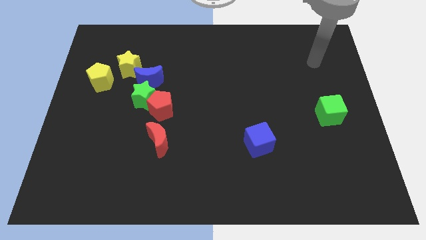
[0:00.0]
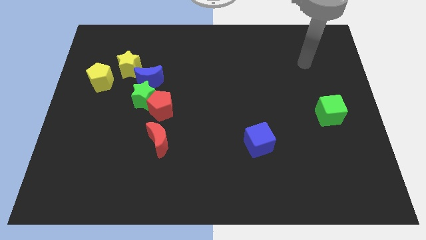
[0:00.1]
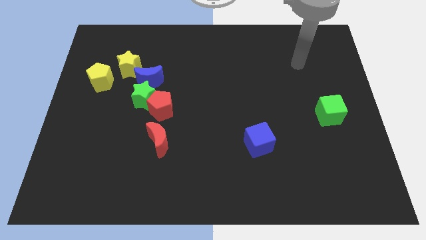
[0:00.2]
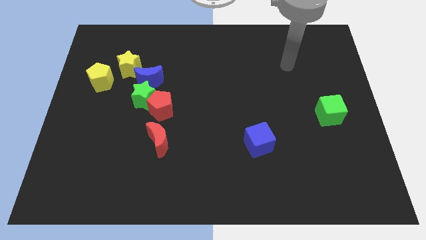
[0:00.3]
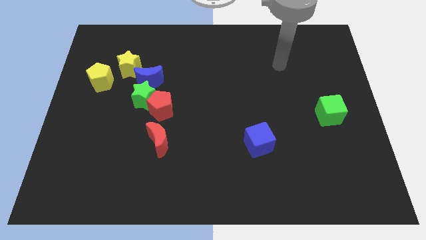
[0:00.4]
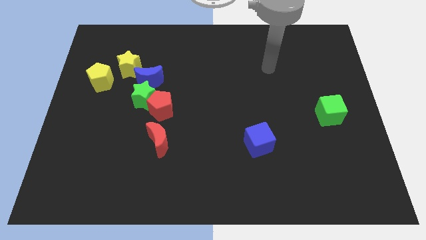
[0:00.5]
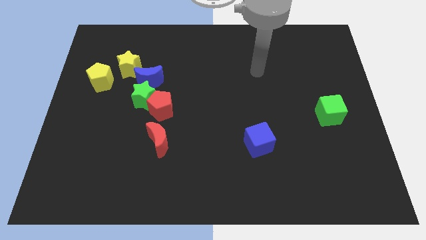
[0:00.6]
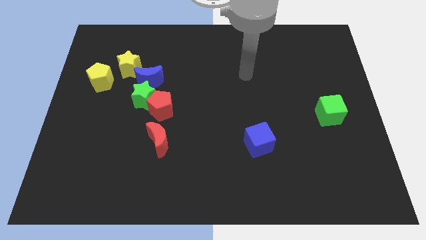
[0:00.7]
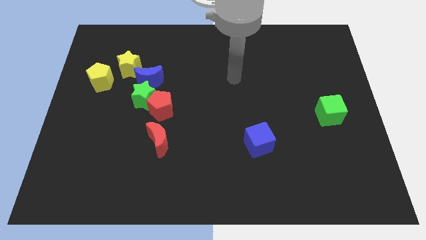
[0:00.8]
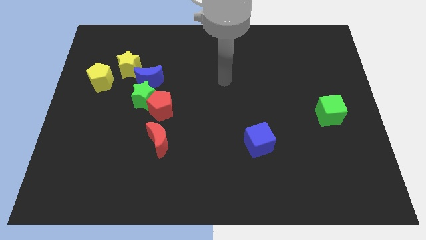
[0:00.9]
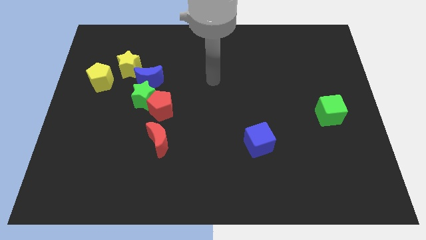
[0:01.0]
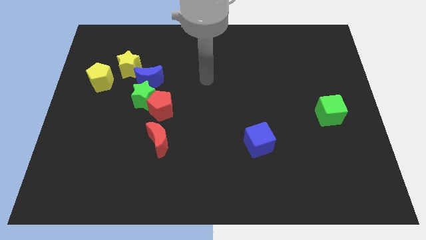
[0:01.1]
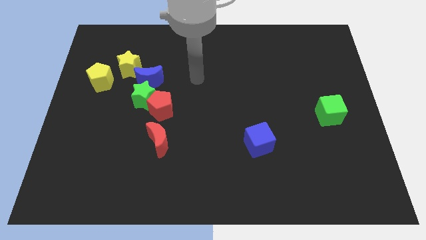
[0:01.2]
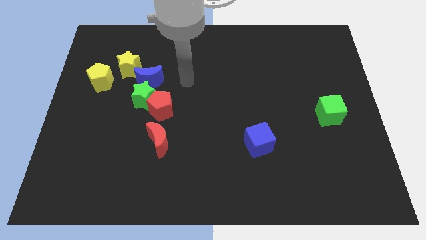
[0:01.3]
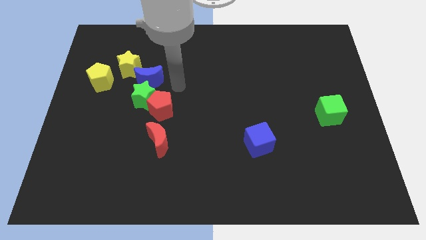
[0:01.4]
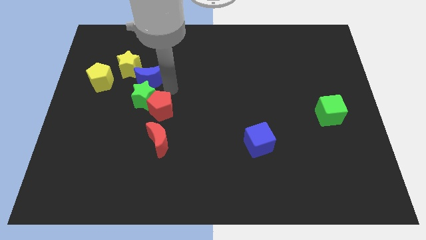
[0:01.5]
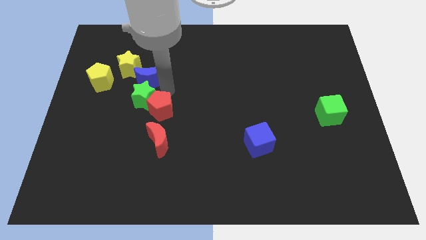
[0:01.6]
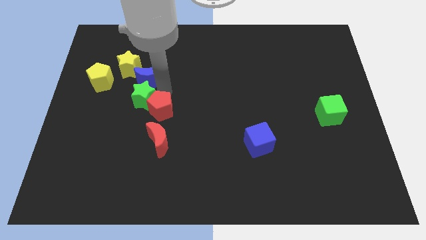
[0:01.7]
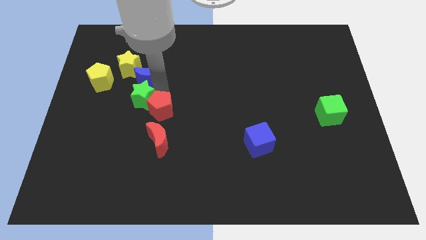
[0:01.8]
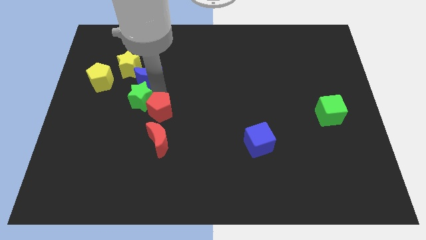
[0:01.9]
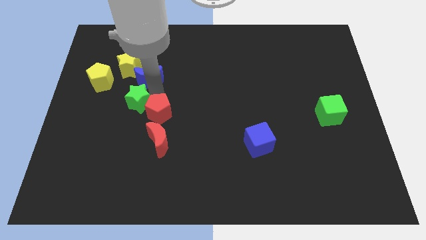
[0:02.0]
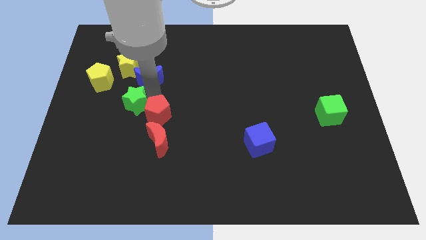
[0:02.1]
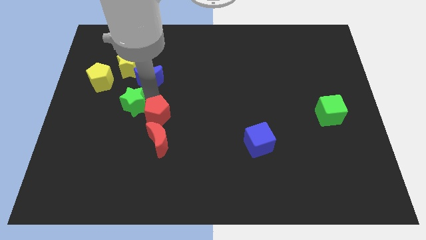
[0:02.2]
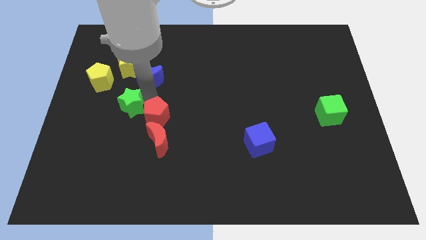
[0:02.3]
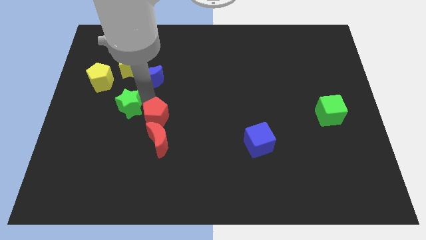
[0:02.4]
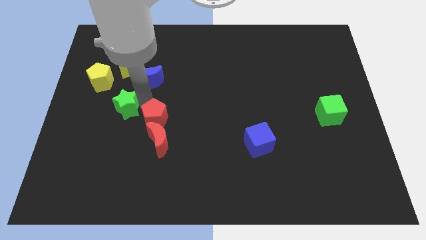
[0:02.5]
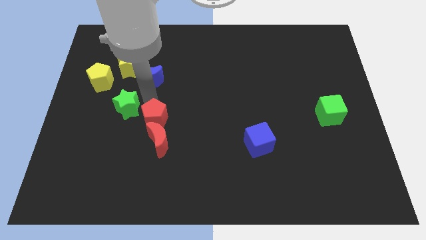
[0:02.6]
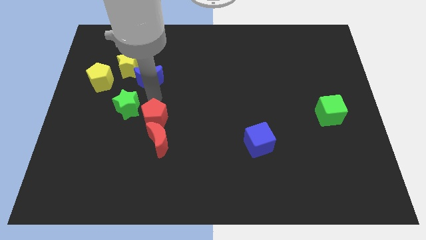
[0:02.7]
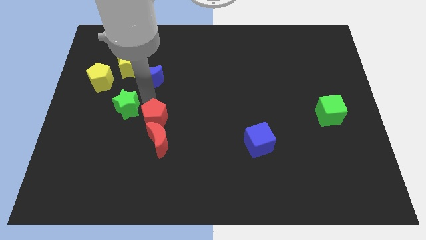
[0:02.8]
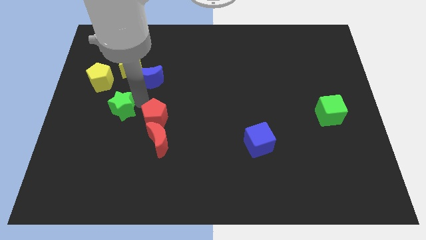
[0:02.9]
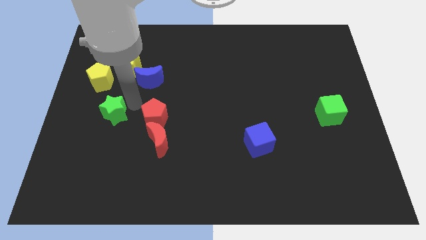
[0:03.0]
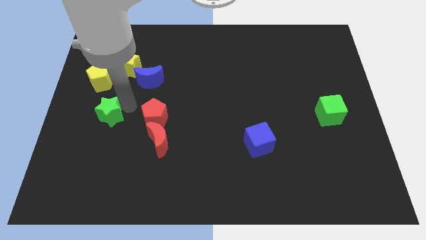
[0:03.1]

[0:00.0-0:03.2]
separate the green star from the red pentagon and blue moon

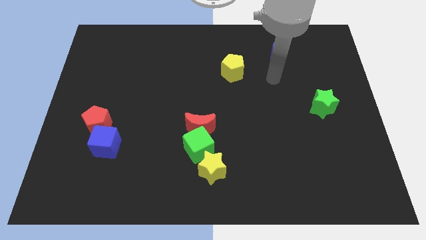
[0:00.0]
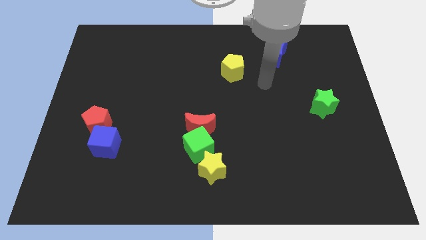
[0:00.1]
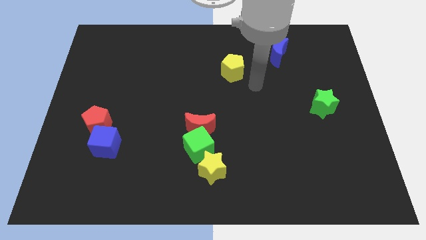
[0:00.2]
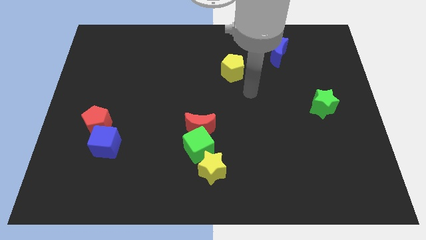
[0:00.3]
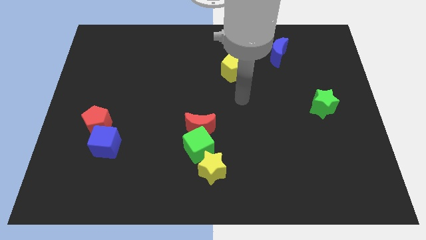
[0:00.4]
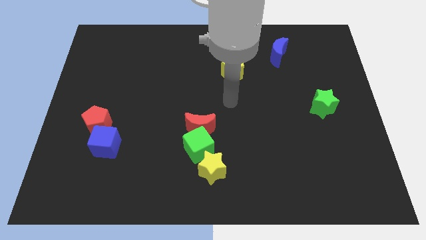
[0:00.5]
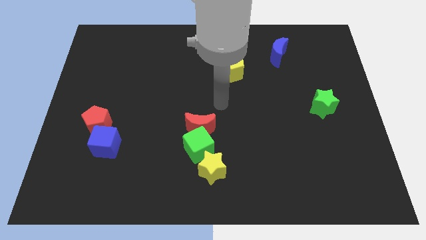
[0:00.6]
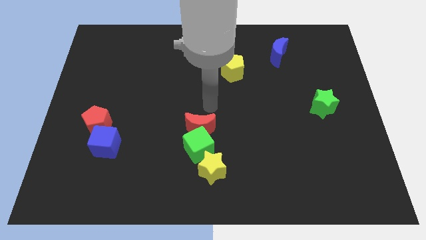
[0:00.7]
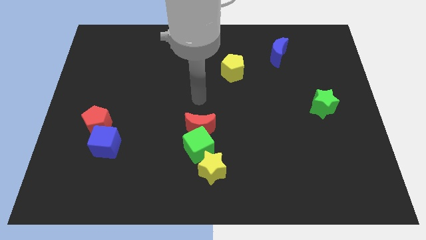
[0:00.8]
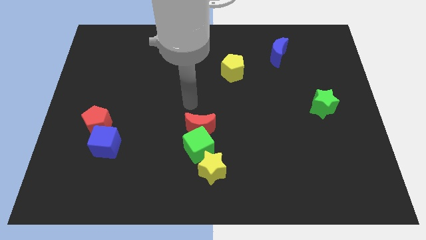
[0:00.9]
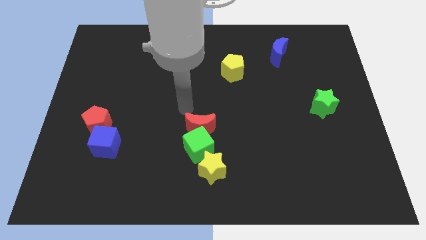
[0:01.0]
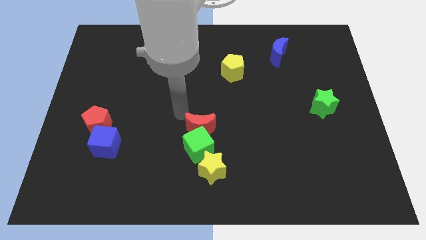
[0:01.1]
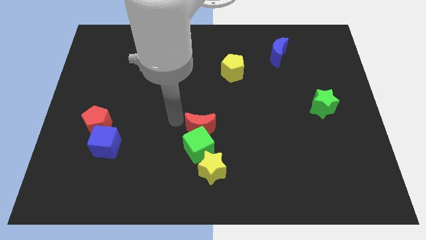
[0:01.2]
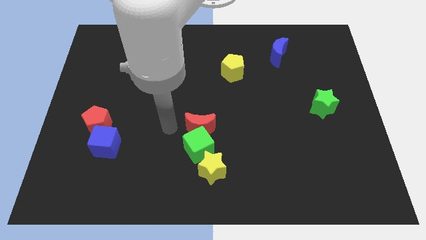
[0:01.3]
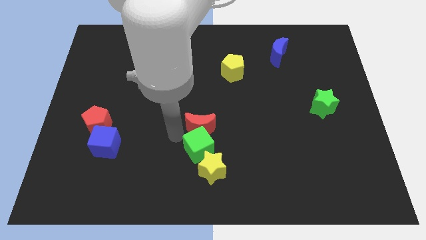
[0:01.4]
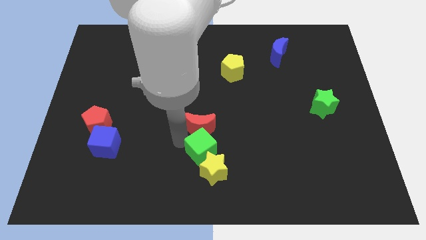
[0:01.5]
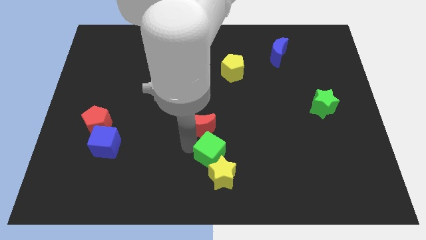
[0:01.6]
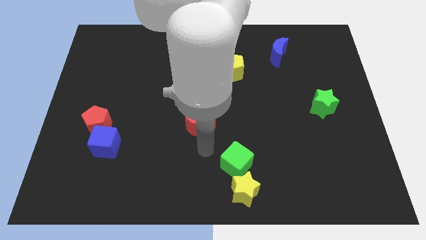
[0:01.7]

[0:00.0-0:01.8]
separate the red moon from the green cube

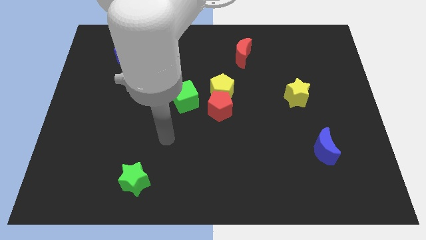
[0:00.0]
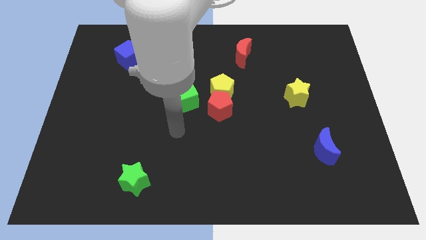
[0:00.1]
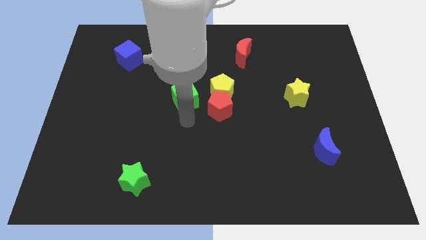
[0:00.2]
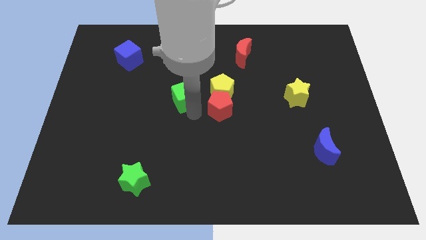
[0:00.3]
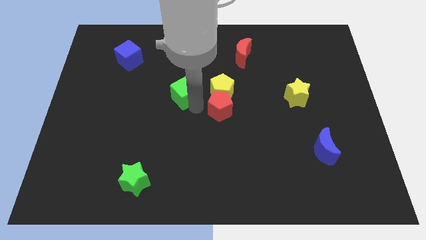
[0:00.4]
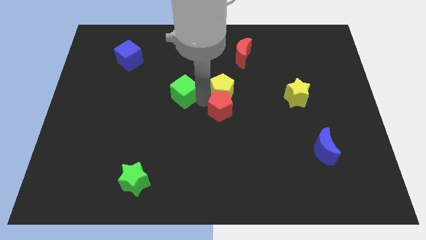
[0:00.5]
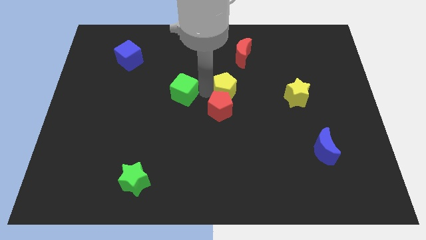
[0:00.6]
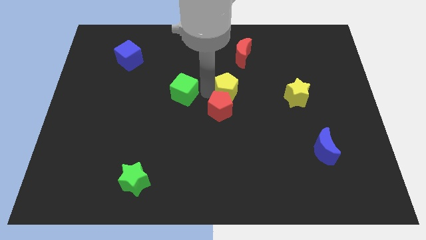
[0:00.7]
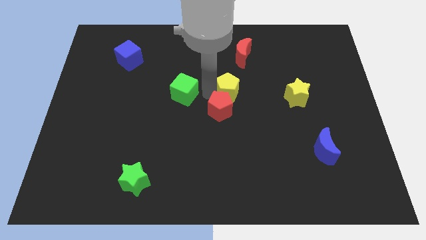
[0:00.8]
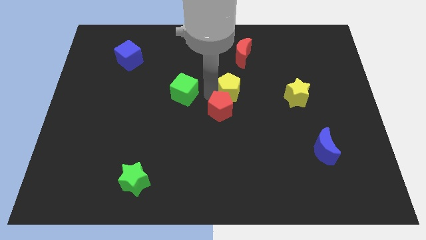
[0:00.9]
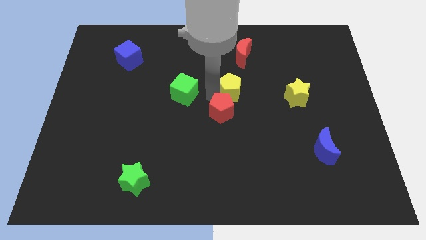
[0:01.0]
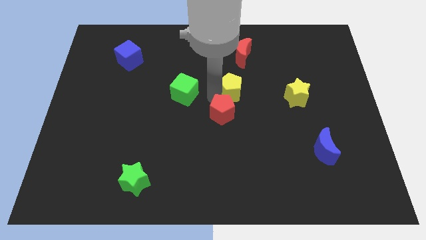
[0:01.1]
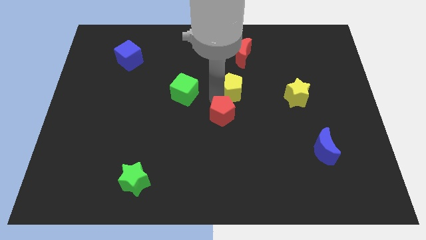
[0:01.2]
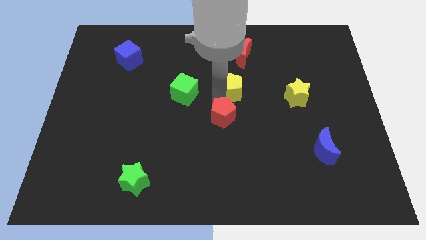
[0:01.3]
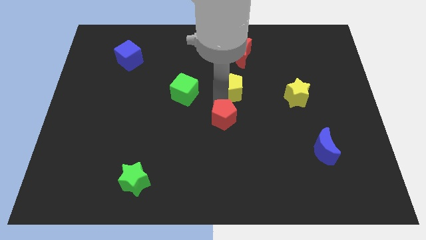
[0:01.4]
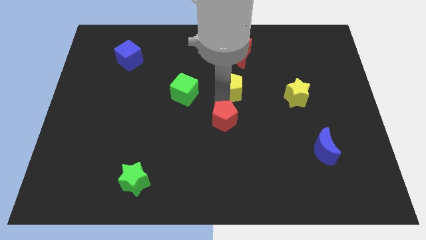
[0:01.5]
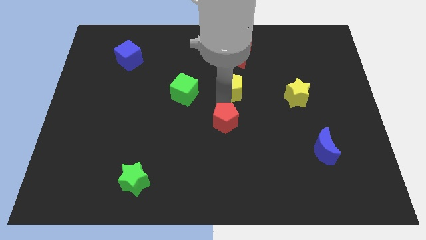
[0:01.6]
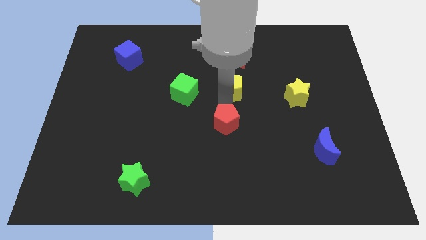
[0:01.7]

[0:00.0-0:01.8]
separate the red pentagon from the yellow pentagon and green cube

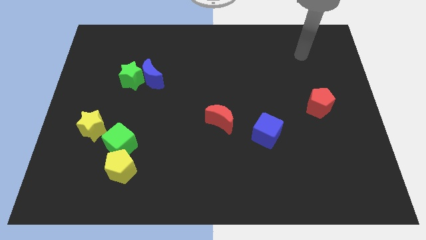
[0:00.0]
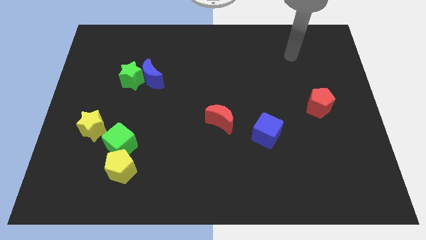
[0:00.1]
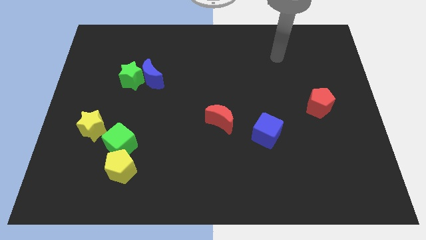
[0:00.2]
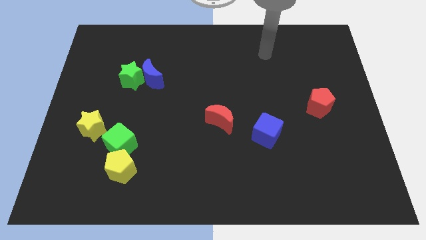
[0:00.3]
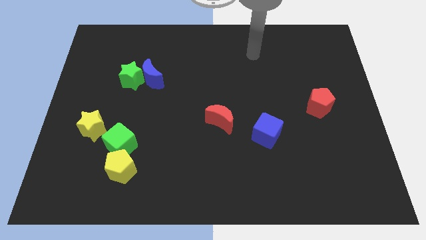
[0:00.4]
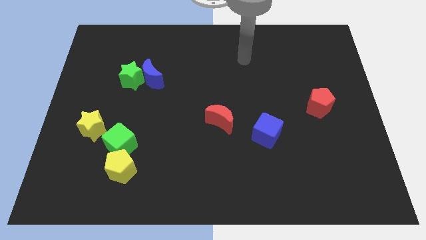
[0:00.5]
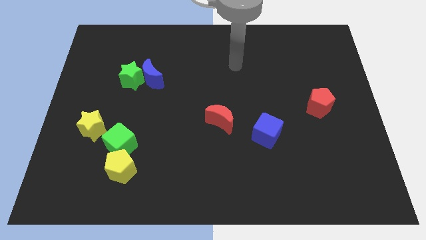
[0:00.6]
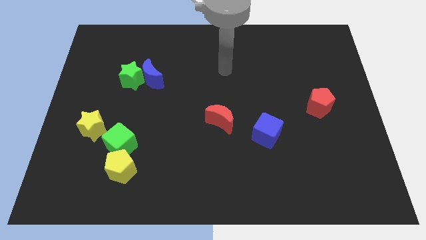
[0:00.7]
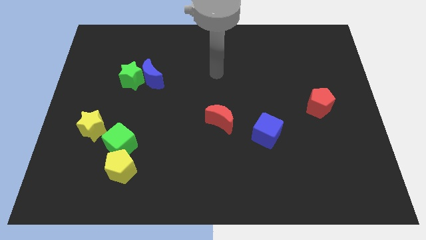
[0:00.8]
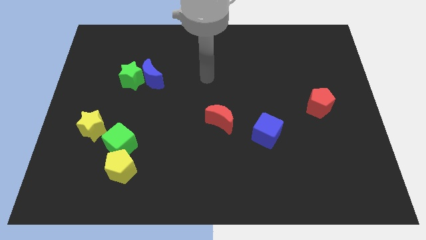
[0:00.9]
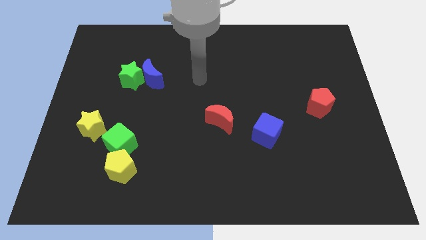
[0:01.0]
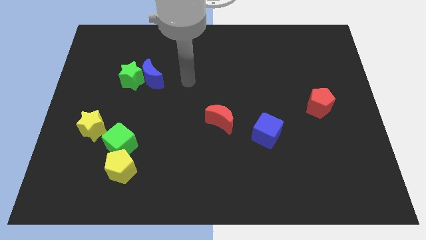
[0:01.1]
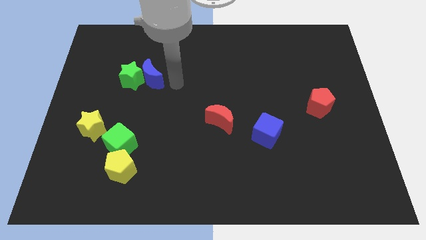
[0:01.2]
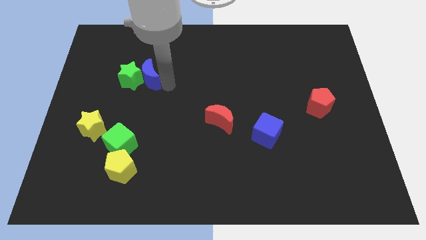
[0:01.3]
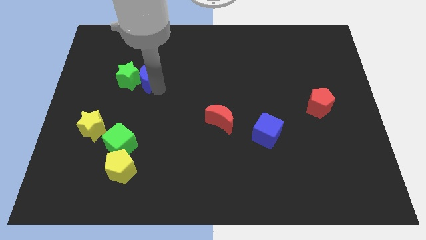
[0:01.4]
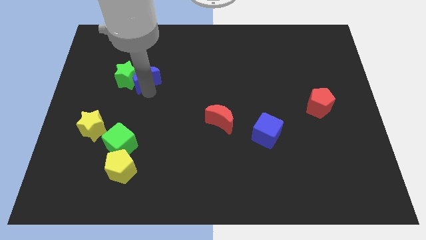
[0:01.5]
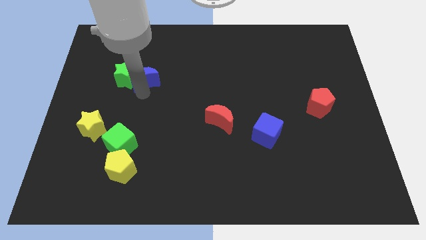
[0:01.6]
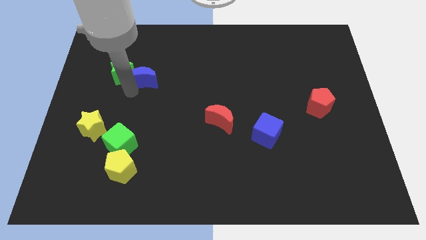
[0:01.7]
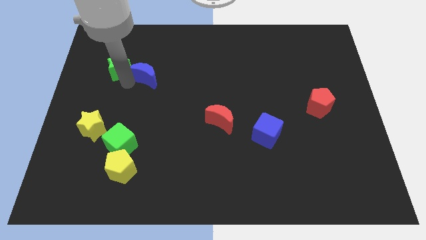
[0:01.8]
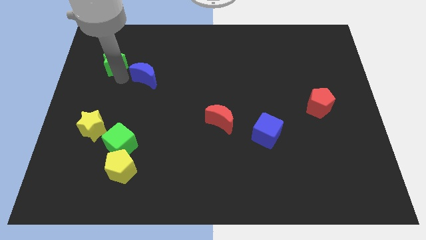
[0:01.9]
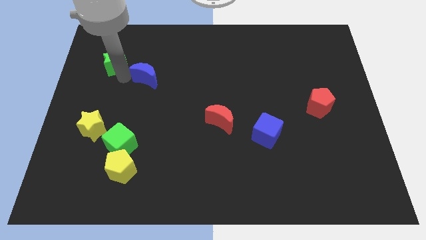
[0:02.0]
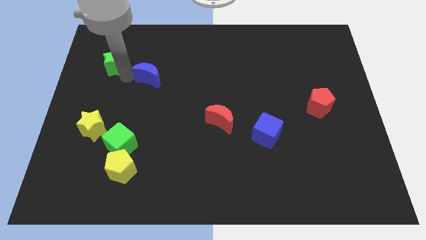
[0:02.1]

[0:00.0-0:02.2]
separate the blue moon from the green star

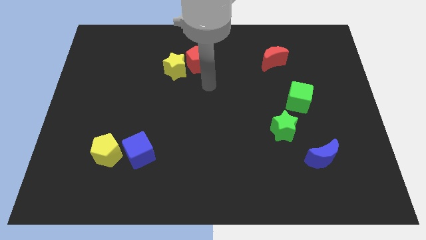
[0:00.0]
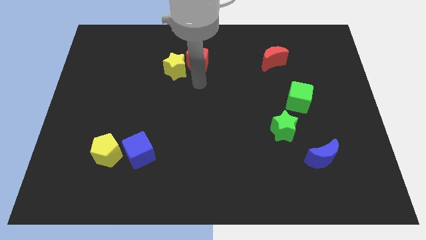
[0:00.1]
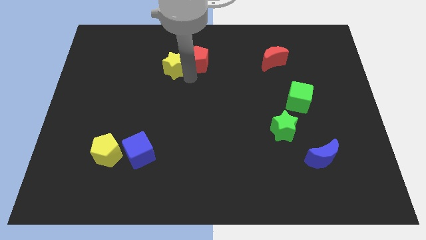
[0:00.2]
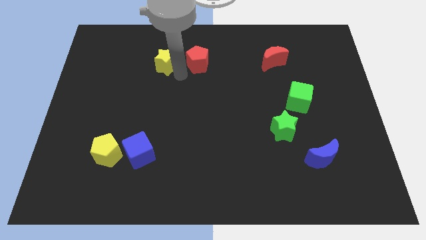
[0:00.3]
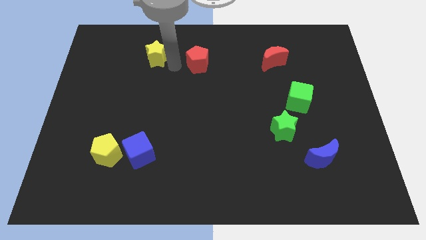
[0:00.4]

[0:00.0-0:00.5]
move the red pentagon away from the yellow star
